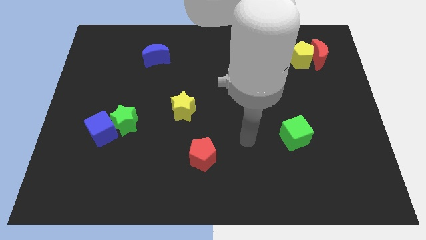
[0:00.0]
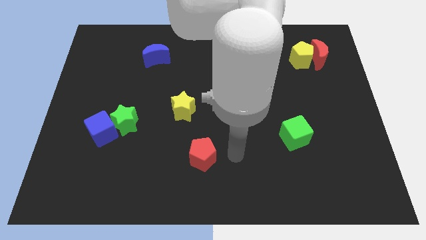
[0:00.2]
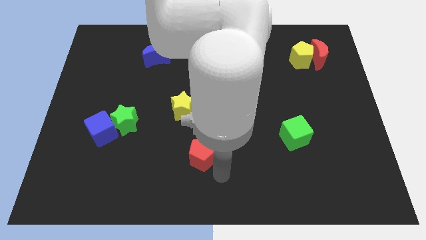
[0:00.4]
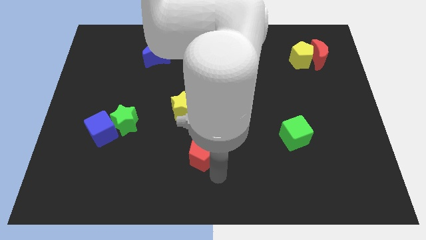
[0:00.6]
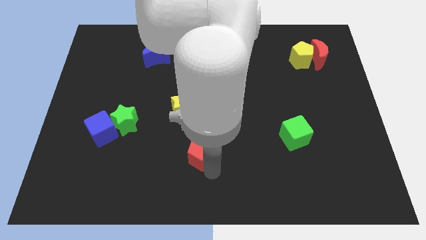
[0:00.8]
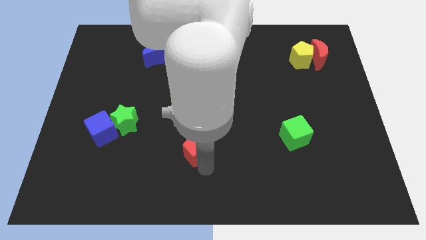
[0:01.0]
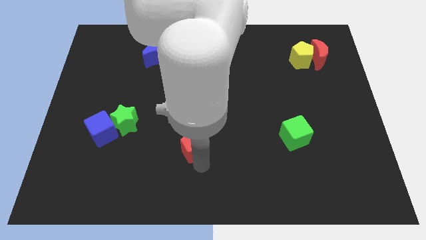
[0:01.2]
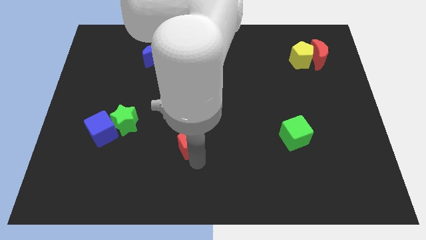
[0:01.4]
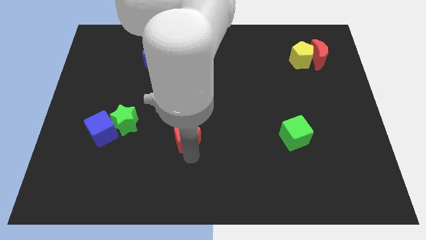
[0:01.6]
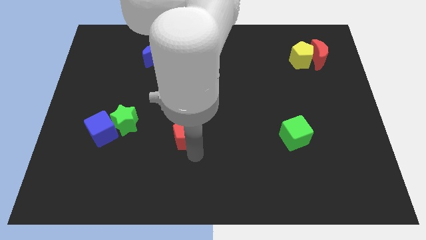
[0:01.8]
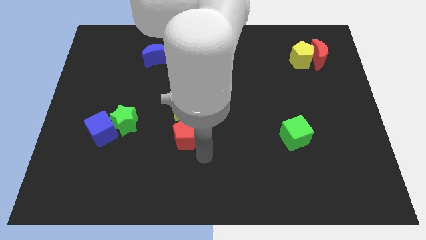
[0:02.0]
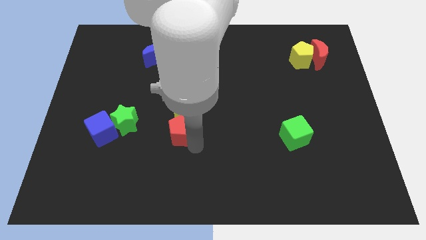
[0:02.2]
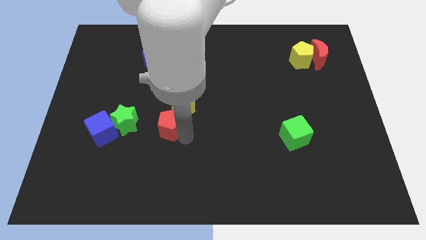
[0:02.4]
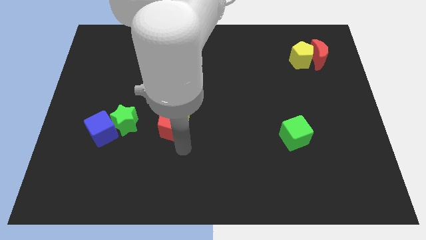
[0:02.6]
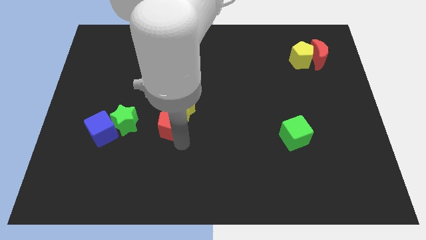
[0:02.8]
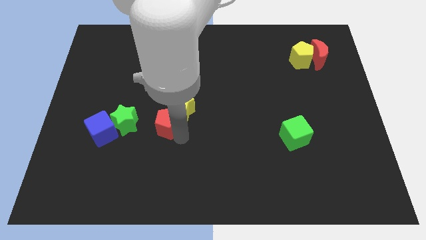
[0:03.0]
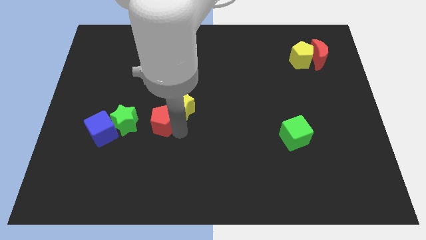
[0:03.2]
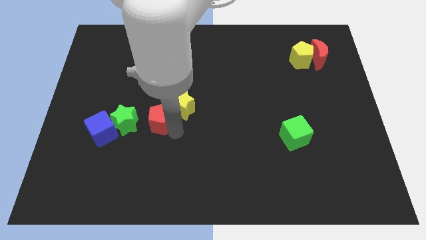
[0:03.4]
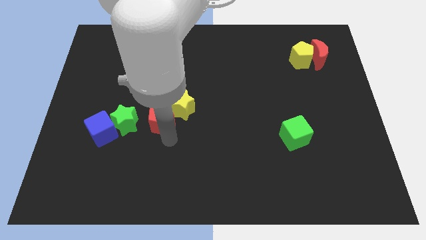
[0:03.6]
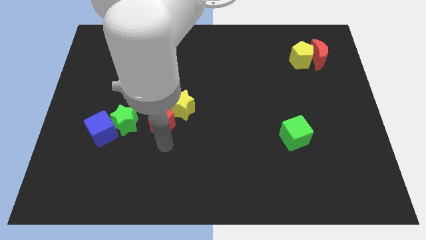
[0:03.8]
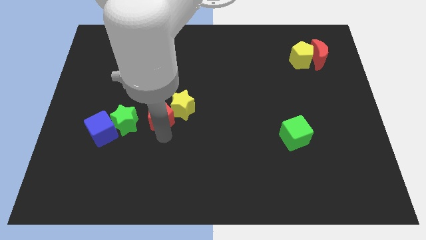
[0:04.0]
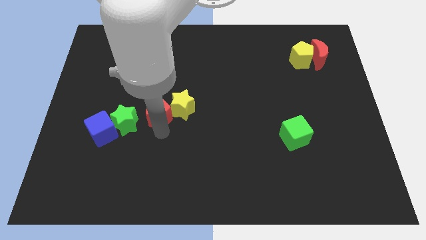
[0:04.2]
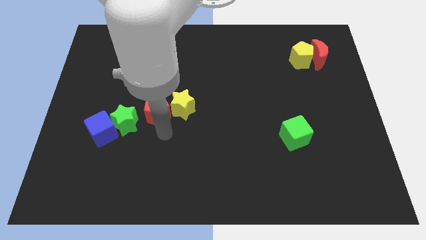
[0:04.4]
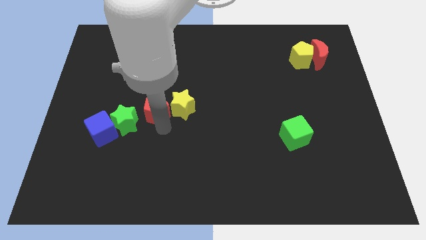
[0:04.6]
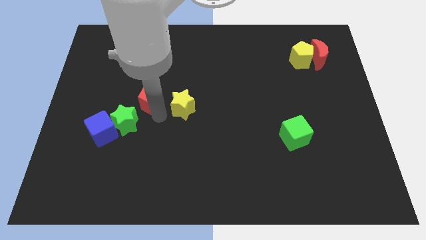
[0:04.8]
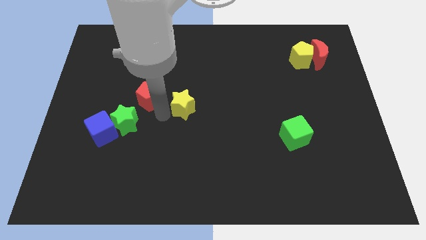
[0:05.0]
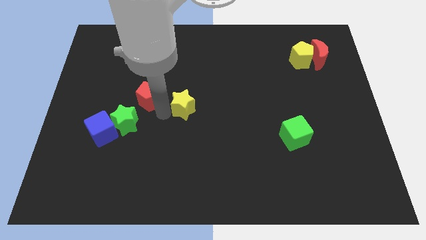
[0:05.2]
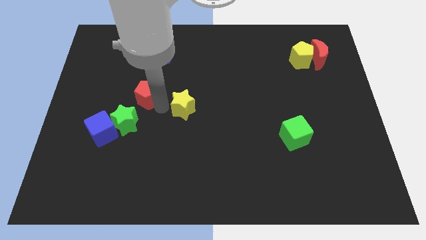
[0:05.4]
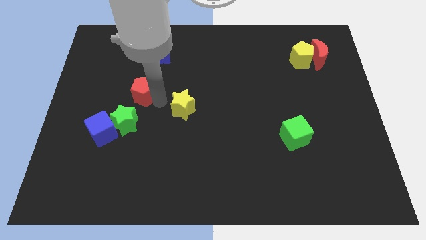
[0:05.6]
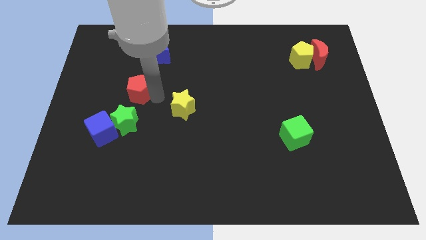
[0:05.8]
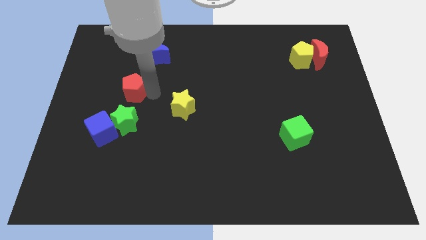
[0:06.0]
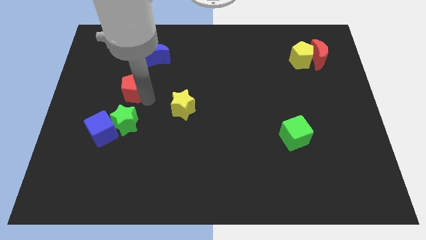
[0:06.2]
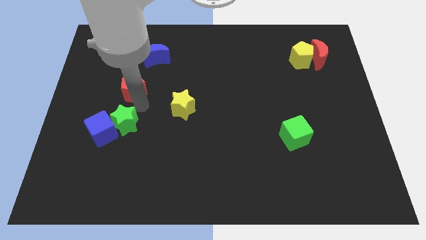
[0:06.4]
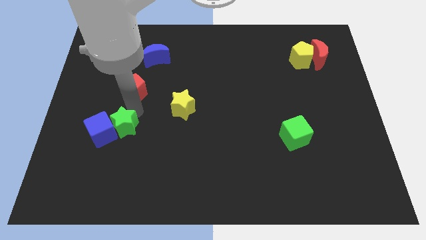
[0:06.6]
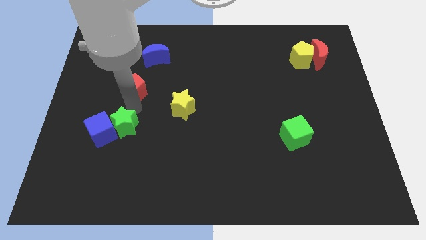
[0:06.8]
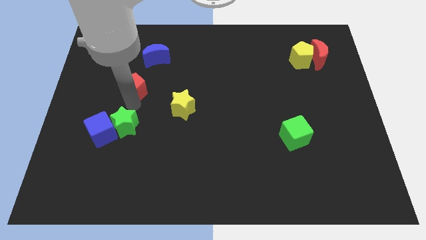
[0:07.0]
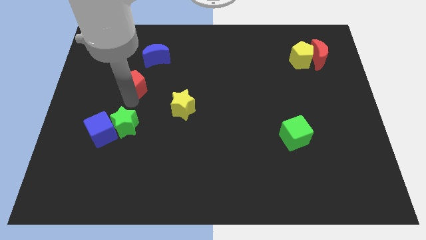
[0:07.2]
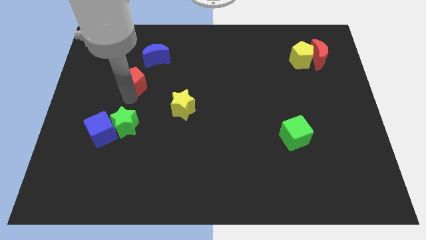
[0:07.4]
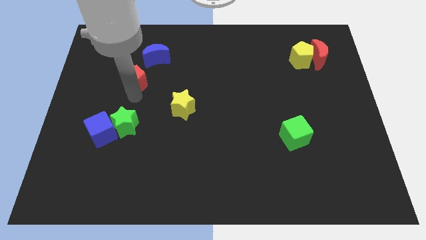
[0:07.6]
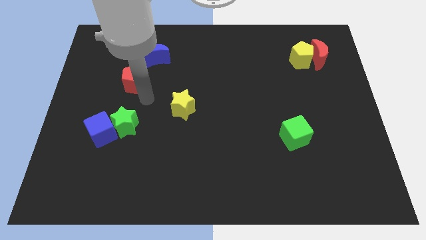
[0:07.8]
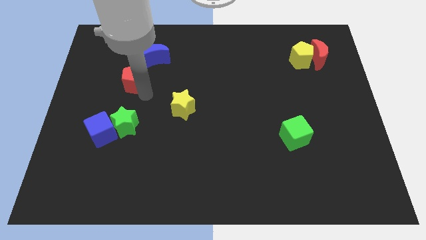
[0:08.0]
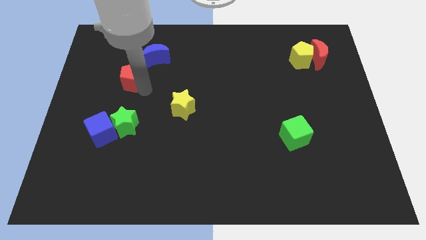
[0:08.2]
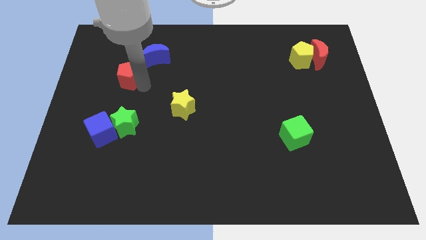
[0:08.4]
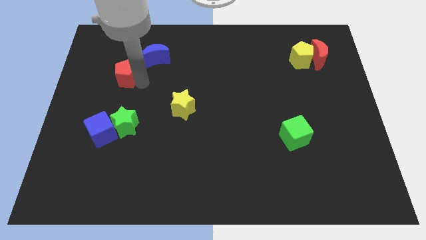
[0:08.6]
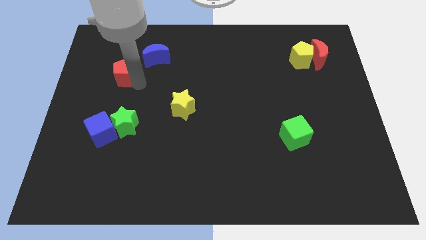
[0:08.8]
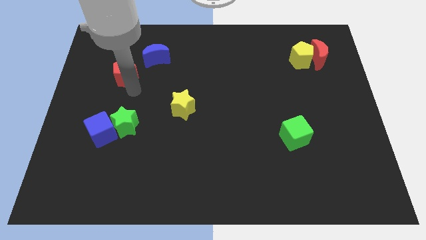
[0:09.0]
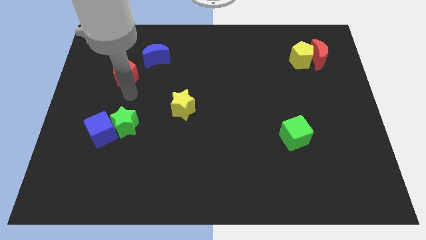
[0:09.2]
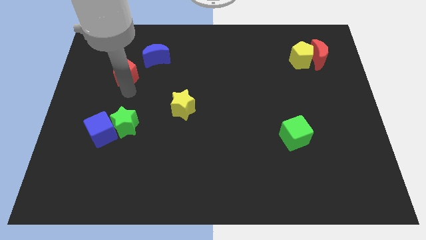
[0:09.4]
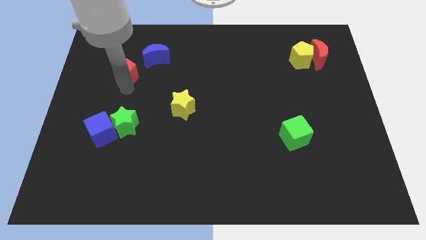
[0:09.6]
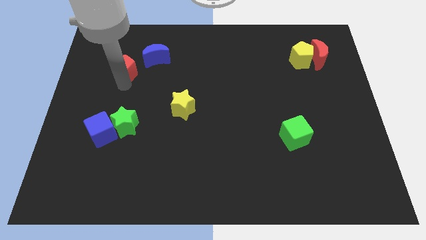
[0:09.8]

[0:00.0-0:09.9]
put the red pentagon left of the blue moon

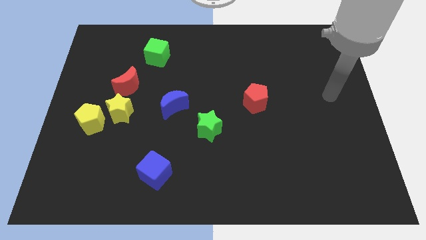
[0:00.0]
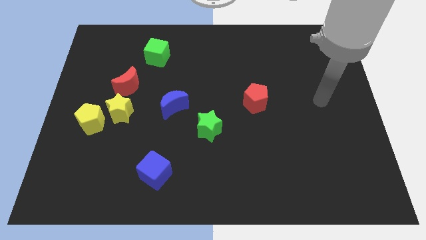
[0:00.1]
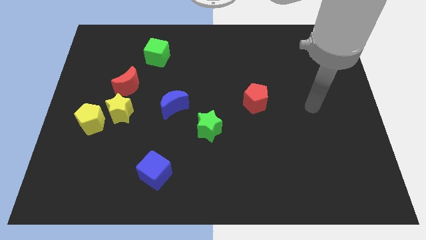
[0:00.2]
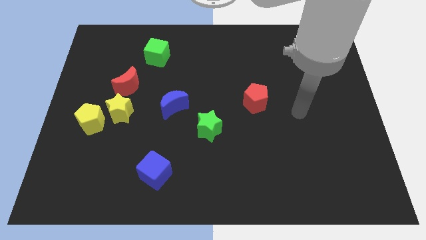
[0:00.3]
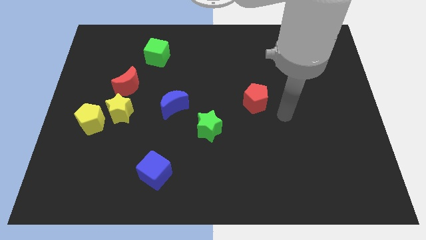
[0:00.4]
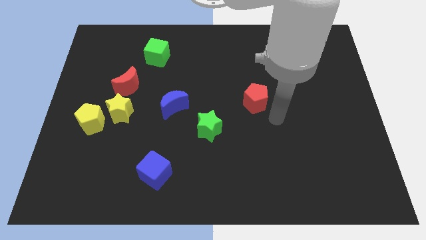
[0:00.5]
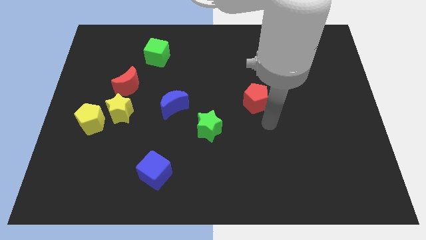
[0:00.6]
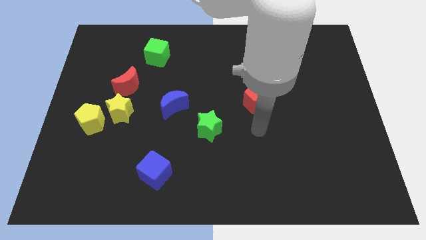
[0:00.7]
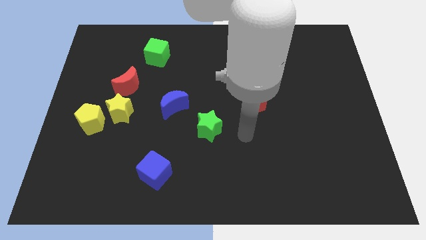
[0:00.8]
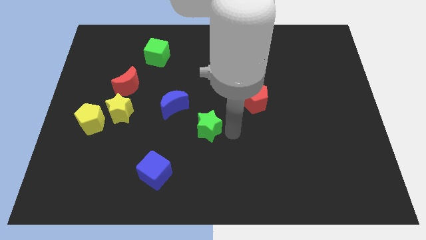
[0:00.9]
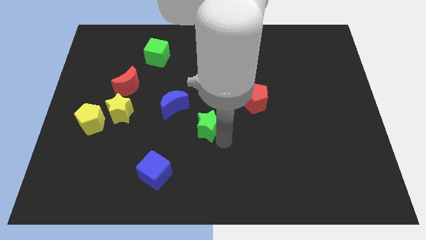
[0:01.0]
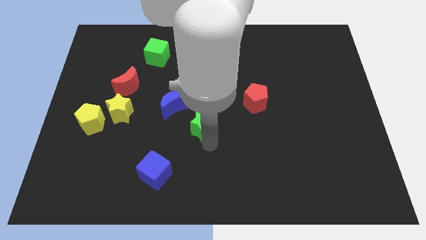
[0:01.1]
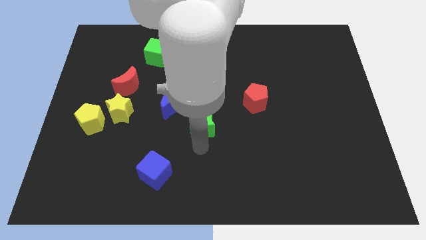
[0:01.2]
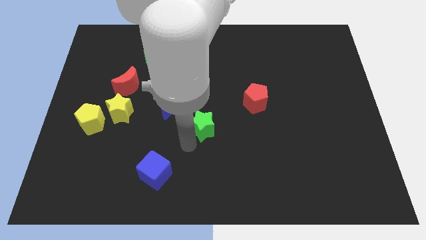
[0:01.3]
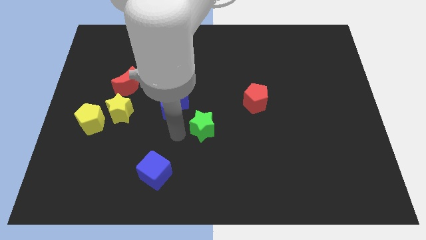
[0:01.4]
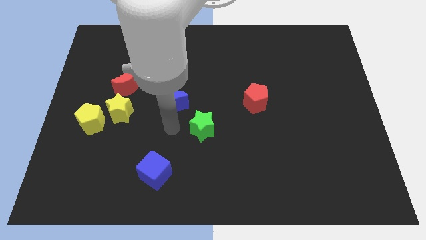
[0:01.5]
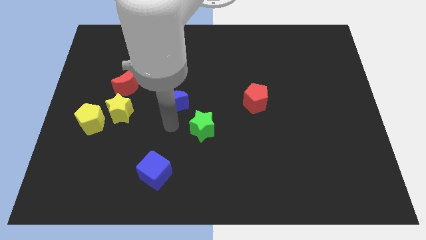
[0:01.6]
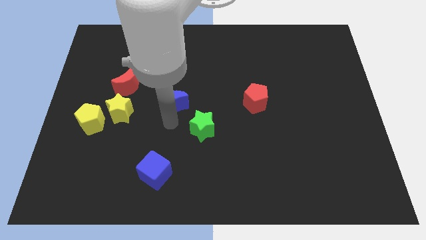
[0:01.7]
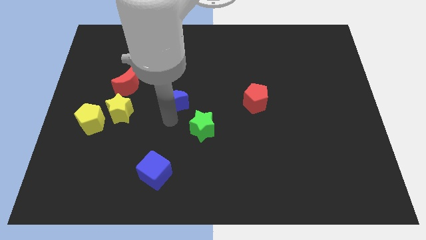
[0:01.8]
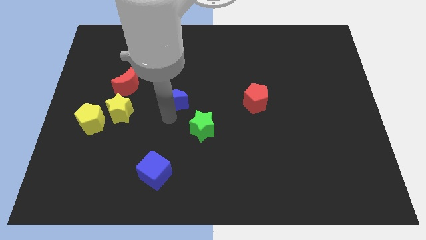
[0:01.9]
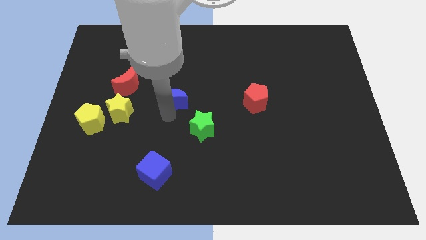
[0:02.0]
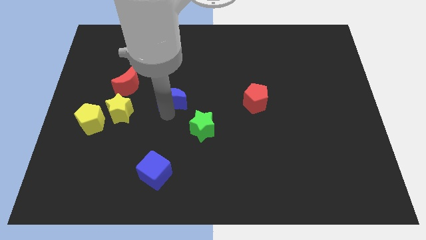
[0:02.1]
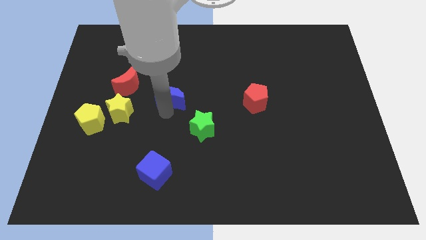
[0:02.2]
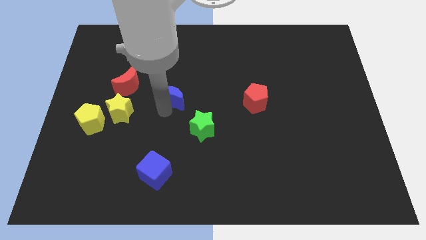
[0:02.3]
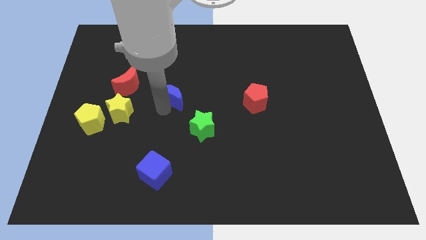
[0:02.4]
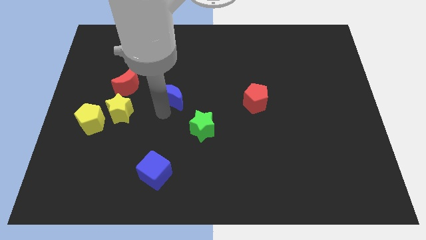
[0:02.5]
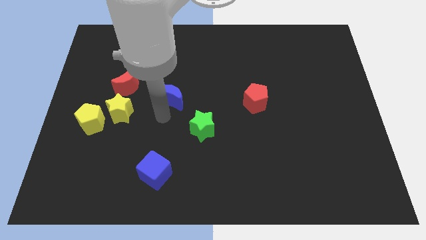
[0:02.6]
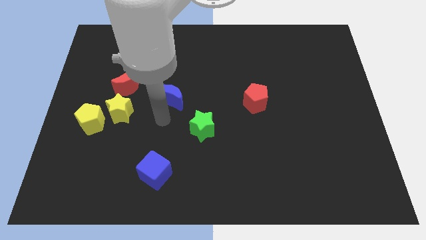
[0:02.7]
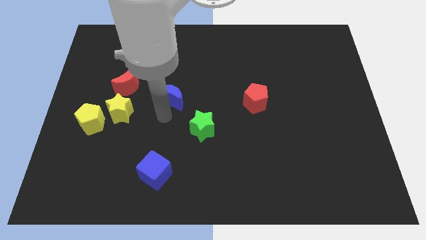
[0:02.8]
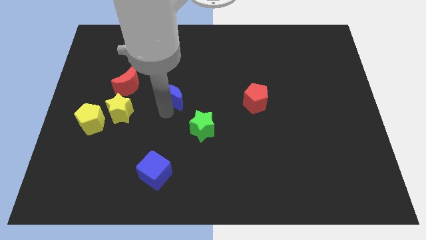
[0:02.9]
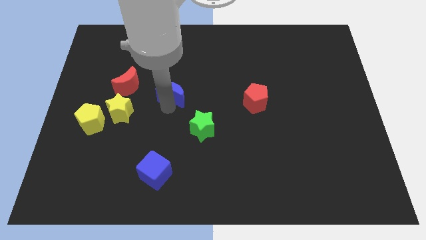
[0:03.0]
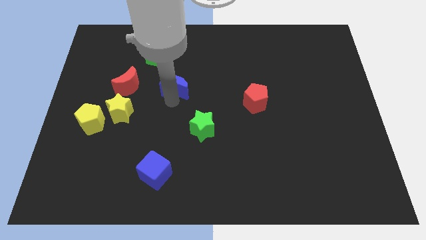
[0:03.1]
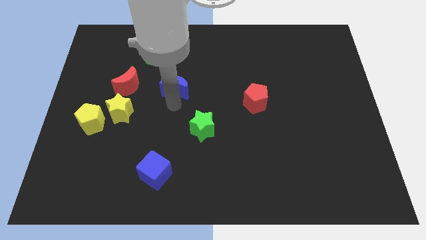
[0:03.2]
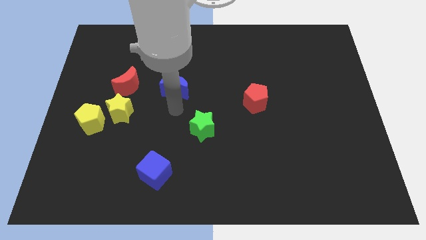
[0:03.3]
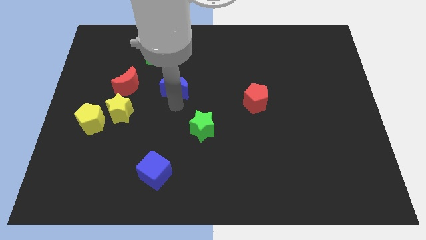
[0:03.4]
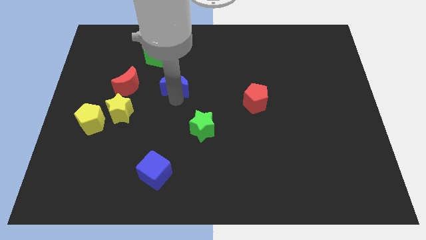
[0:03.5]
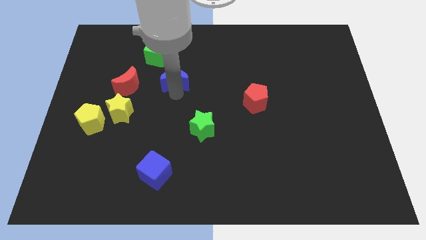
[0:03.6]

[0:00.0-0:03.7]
put the blue moon to the bottom right of the green cube
